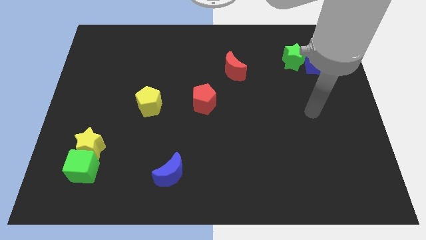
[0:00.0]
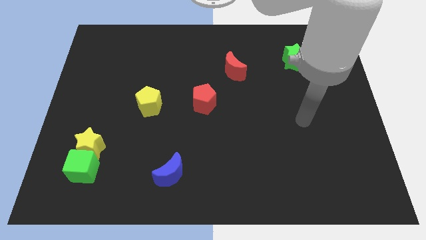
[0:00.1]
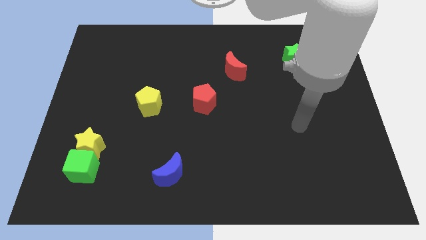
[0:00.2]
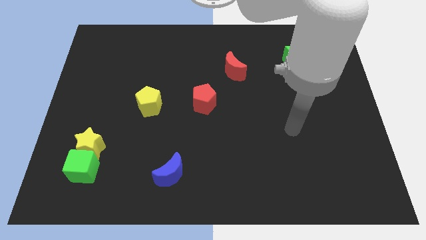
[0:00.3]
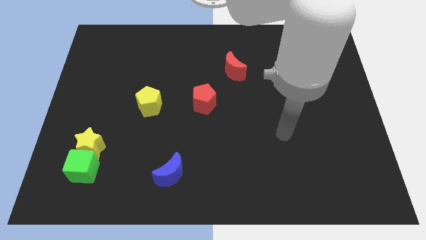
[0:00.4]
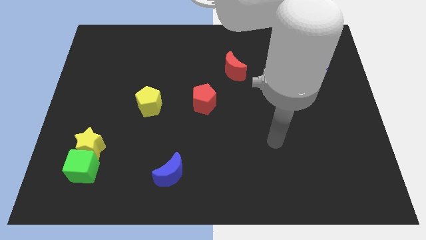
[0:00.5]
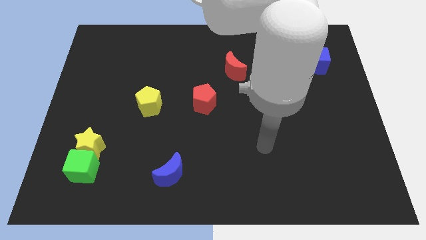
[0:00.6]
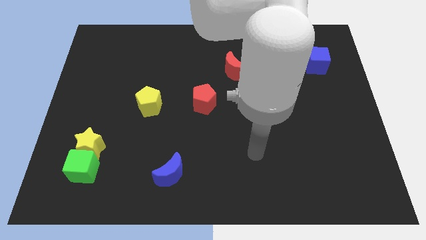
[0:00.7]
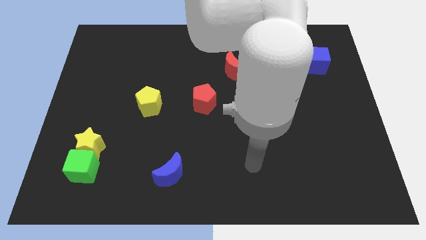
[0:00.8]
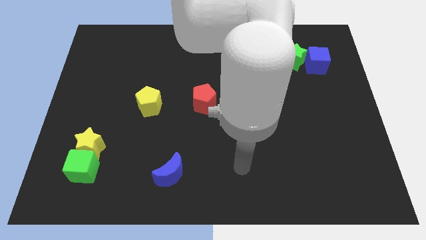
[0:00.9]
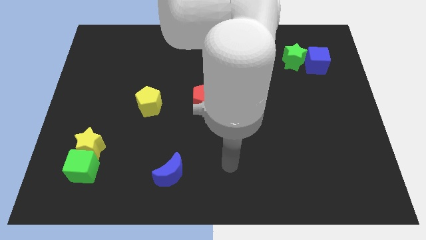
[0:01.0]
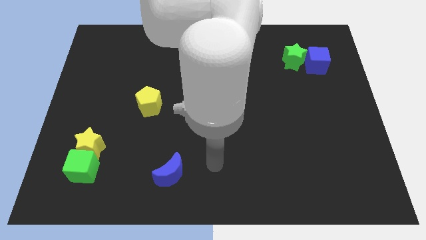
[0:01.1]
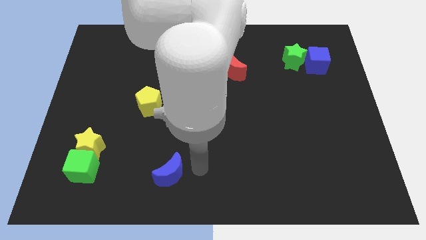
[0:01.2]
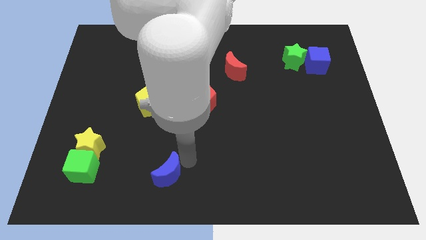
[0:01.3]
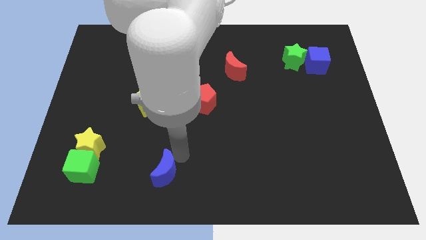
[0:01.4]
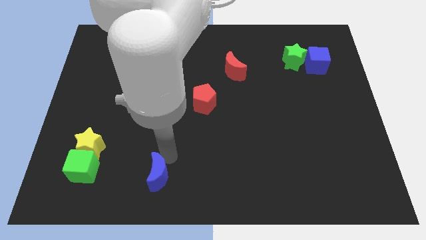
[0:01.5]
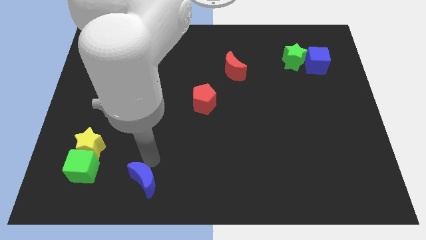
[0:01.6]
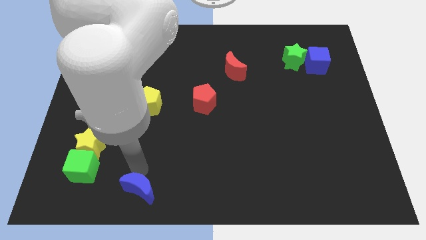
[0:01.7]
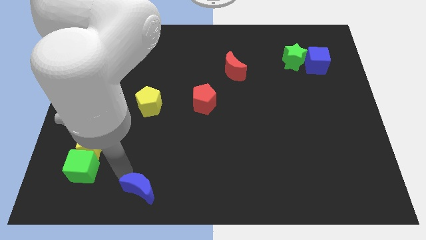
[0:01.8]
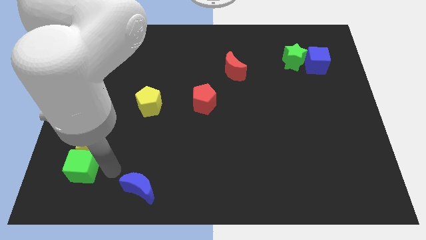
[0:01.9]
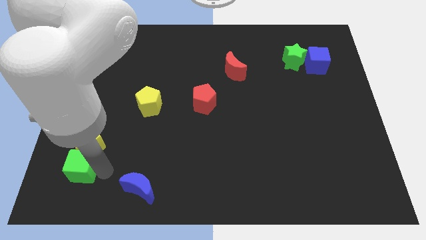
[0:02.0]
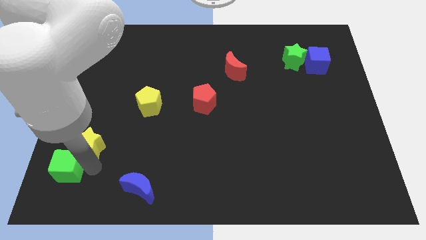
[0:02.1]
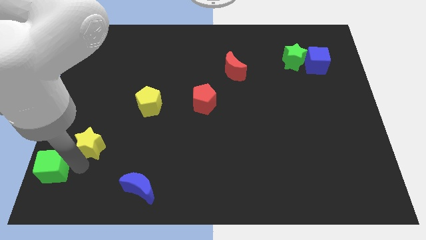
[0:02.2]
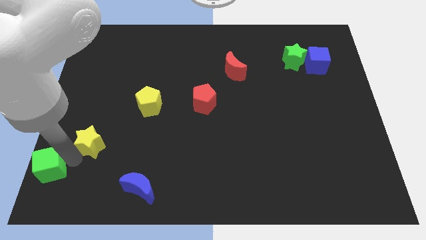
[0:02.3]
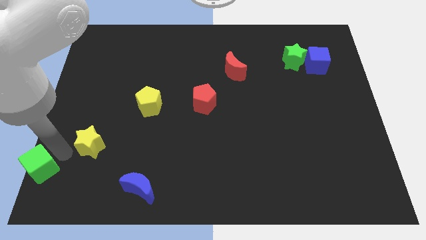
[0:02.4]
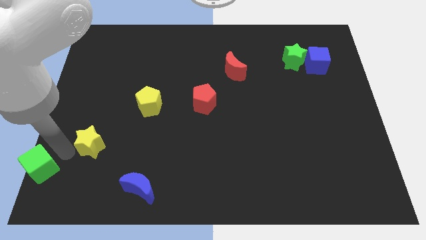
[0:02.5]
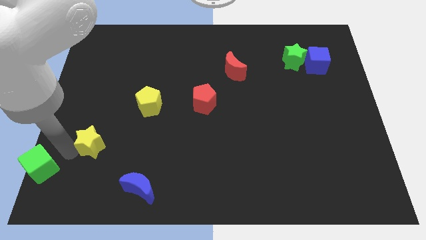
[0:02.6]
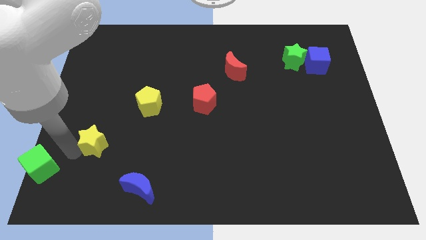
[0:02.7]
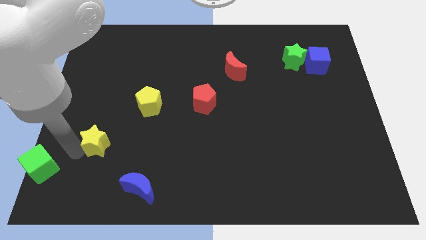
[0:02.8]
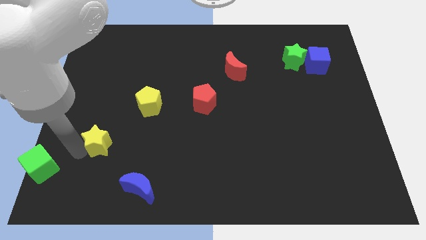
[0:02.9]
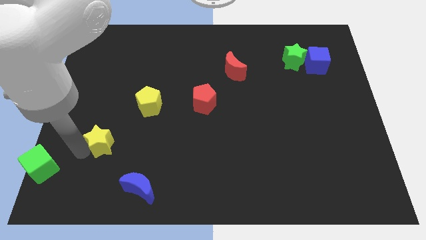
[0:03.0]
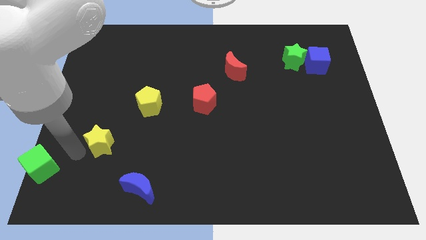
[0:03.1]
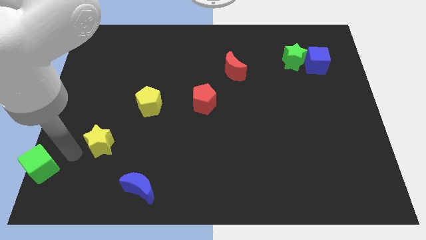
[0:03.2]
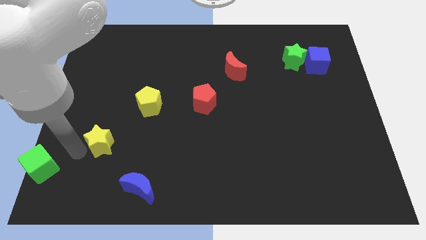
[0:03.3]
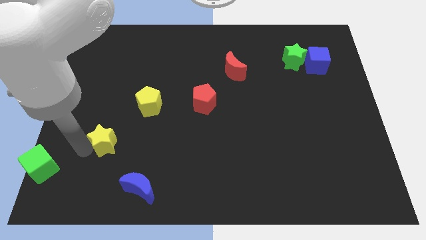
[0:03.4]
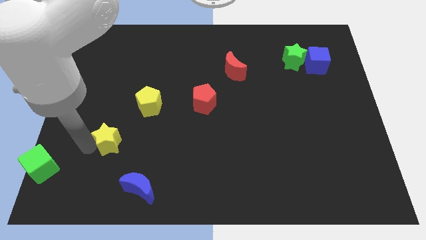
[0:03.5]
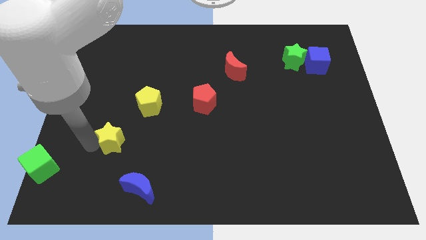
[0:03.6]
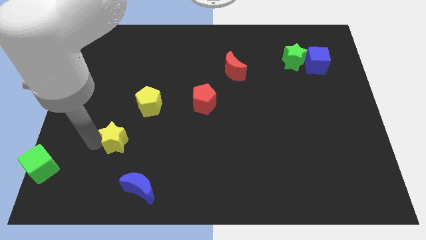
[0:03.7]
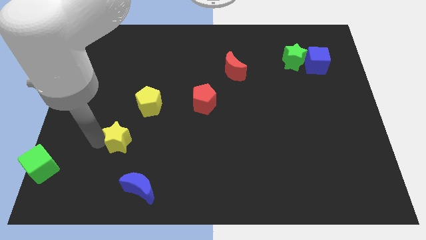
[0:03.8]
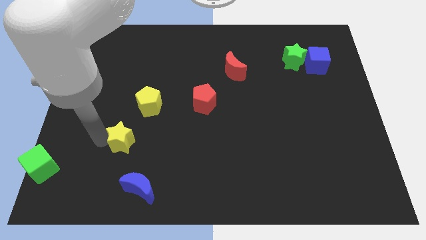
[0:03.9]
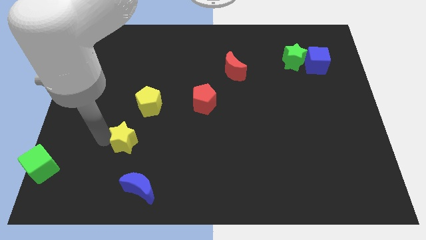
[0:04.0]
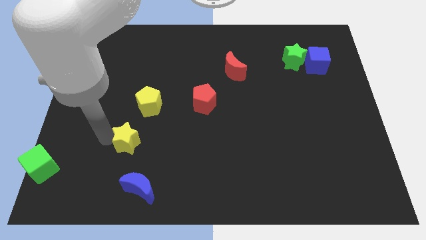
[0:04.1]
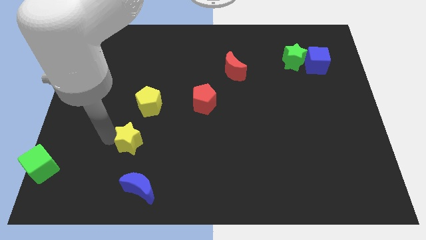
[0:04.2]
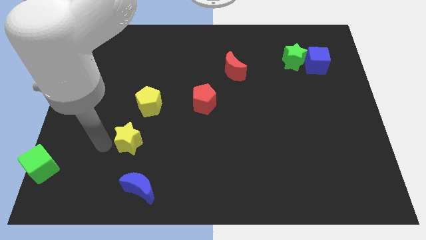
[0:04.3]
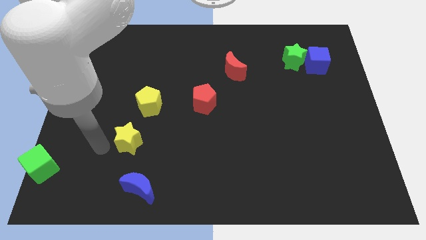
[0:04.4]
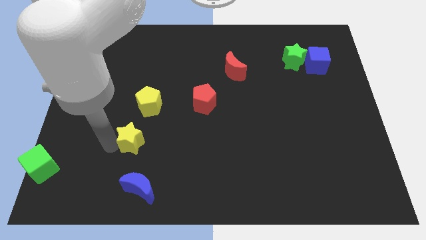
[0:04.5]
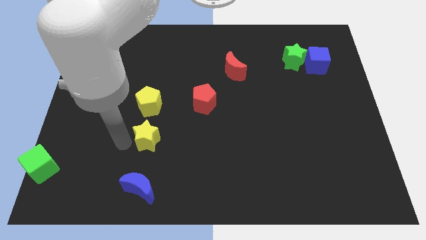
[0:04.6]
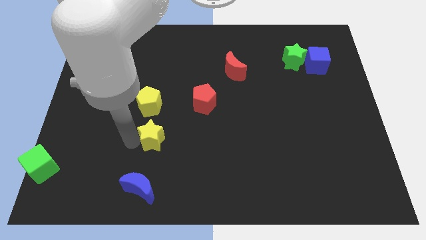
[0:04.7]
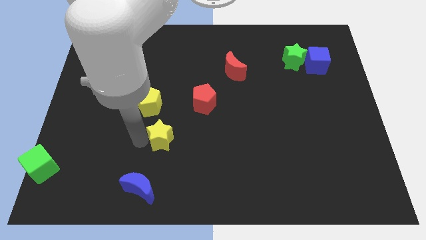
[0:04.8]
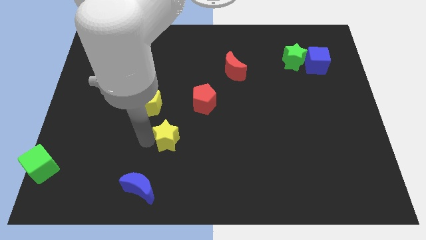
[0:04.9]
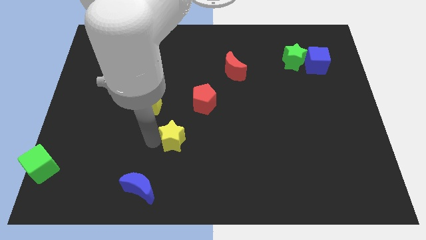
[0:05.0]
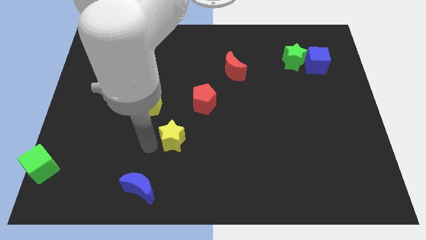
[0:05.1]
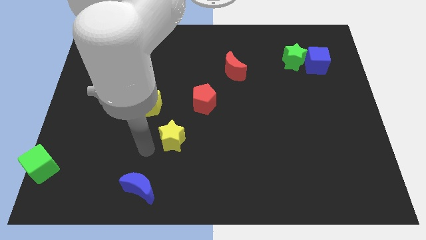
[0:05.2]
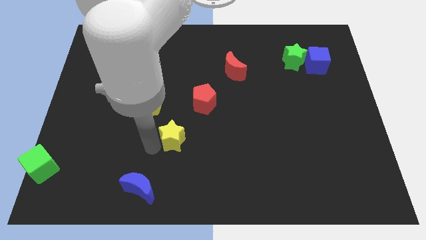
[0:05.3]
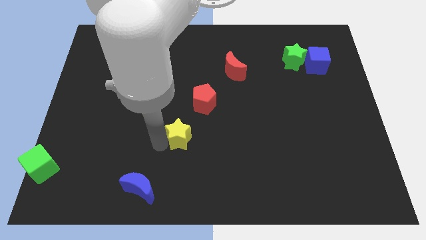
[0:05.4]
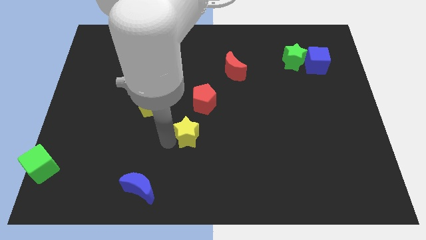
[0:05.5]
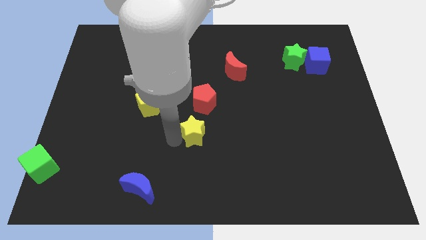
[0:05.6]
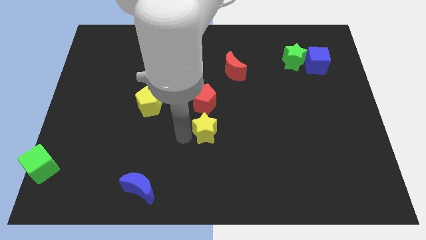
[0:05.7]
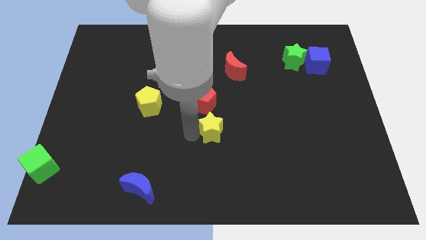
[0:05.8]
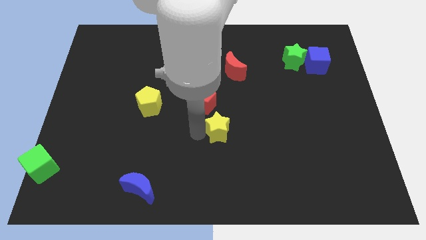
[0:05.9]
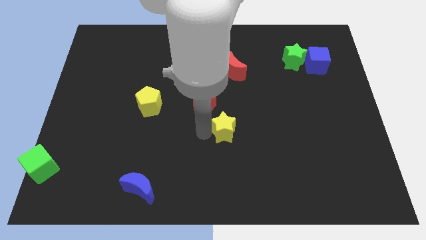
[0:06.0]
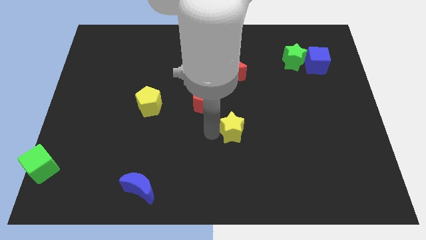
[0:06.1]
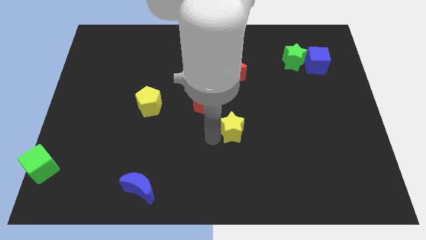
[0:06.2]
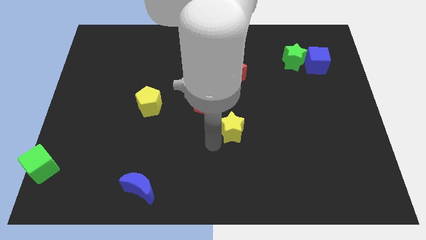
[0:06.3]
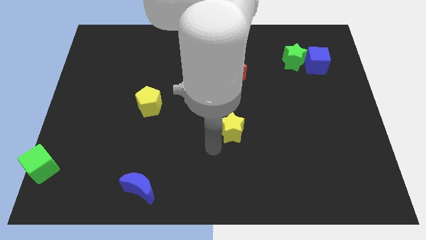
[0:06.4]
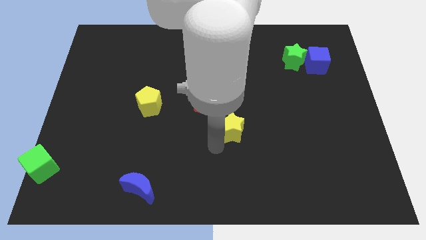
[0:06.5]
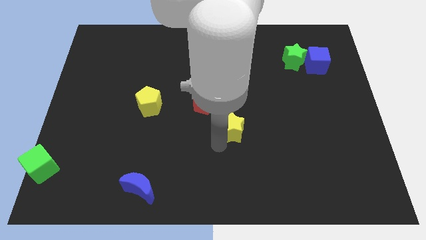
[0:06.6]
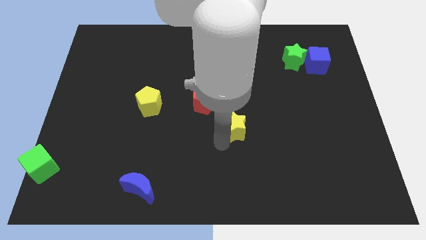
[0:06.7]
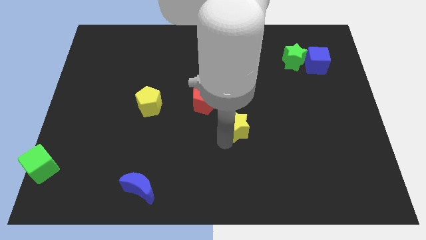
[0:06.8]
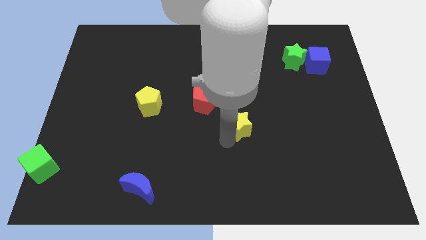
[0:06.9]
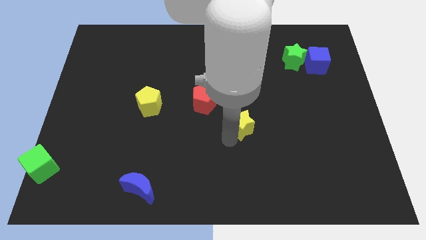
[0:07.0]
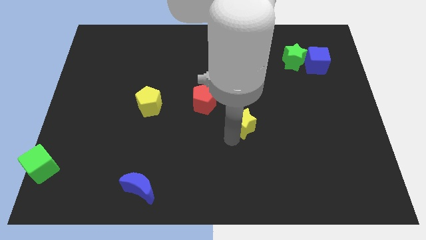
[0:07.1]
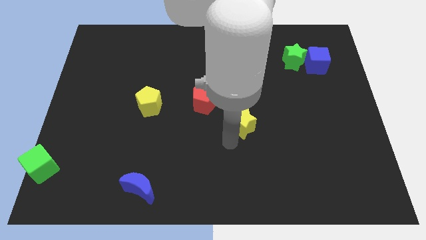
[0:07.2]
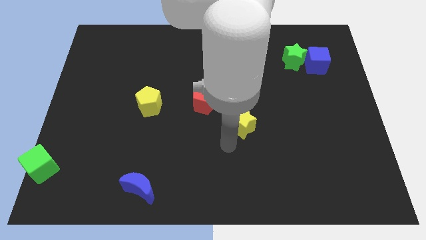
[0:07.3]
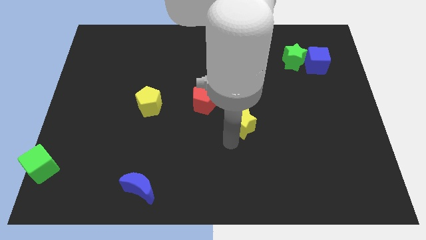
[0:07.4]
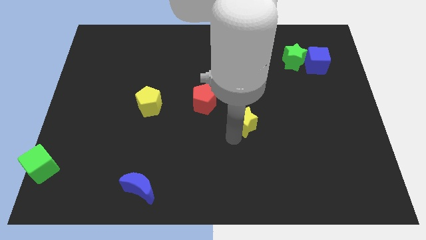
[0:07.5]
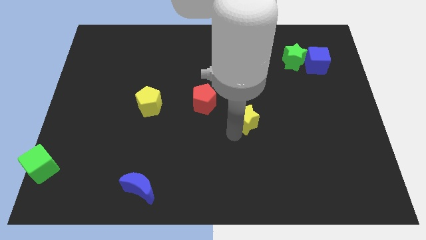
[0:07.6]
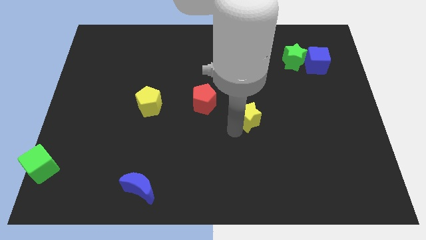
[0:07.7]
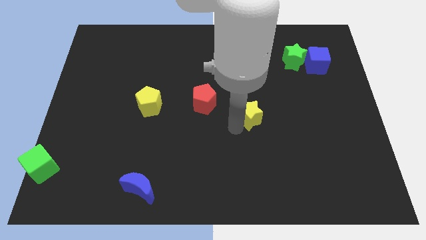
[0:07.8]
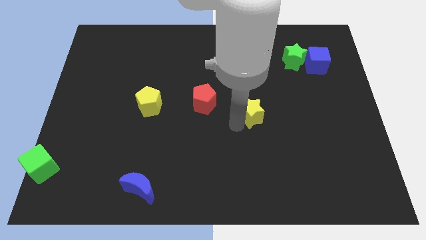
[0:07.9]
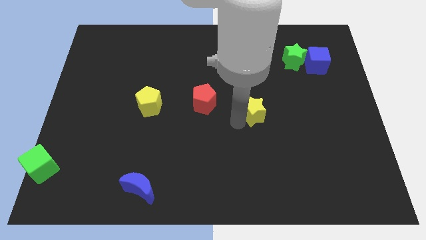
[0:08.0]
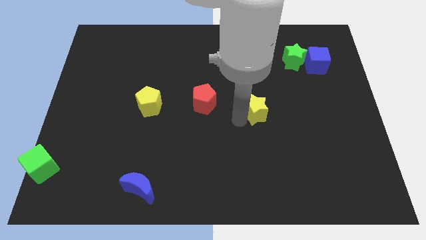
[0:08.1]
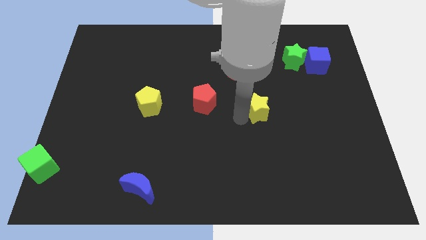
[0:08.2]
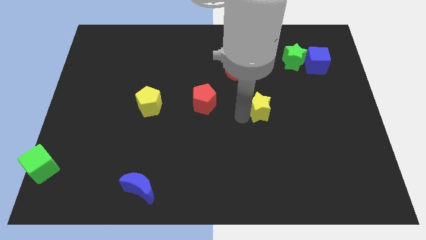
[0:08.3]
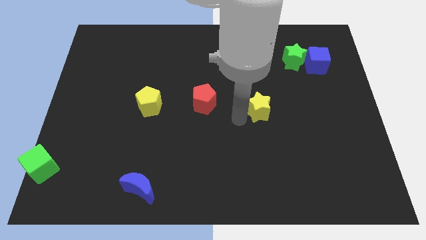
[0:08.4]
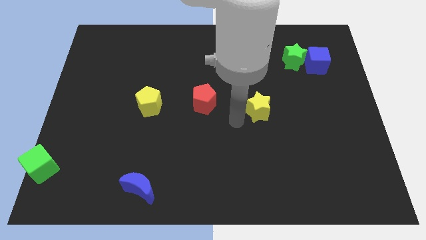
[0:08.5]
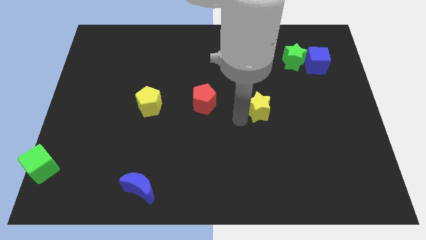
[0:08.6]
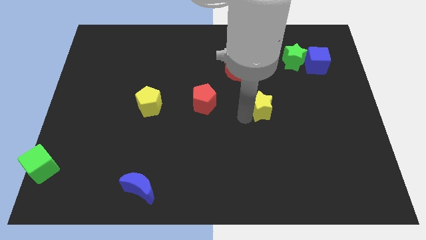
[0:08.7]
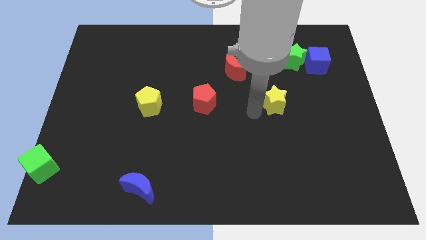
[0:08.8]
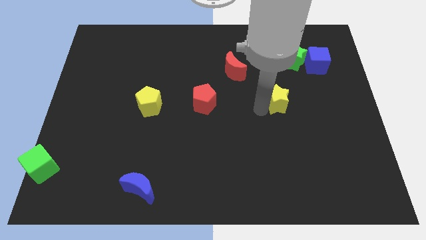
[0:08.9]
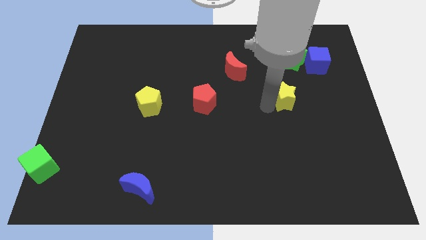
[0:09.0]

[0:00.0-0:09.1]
put the yellow star to the bottom side of the green star
